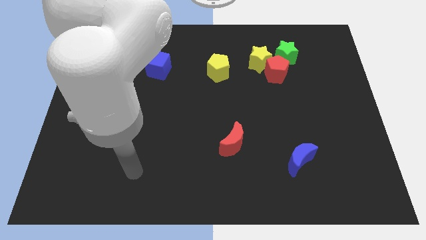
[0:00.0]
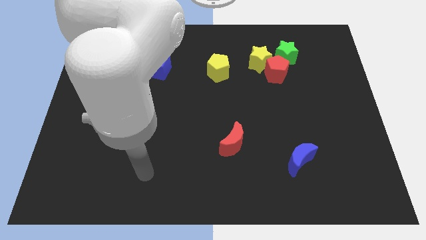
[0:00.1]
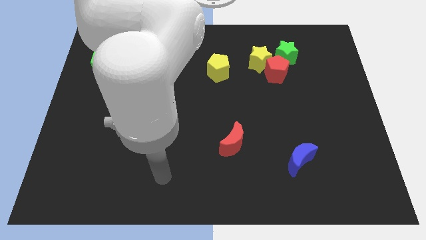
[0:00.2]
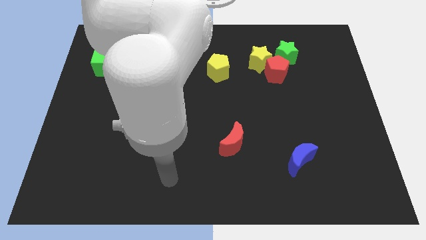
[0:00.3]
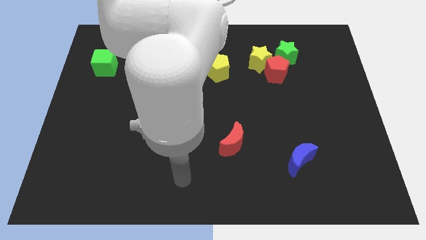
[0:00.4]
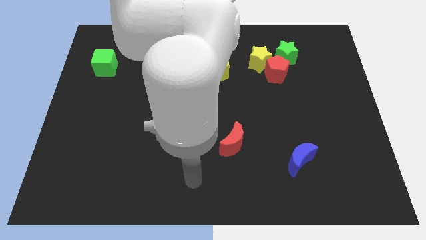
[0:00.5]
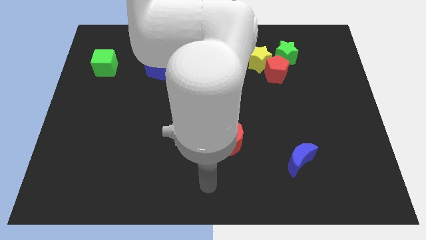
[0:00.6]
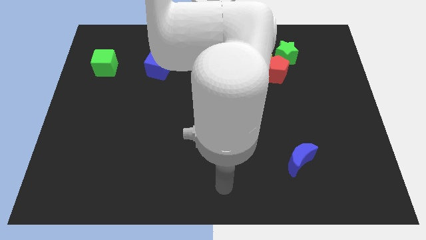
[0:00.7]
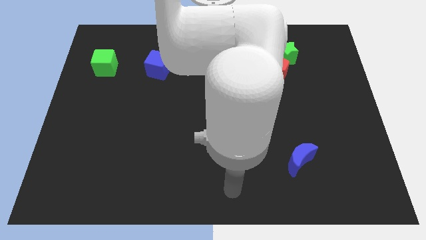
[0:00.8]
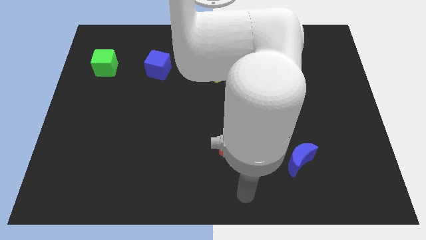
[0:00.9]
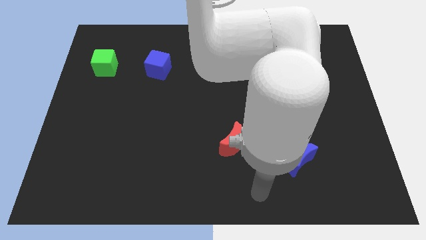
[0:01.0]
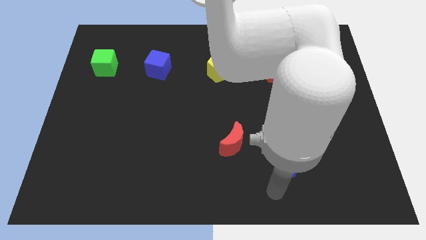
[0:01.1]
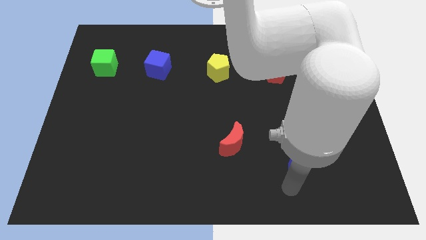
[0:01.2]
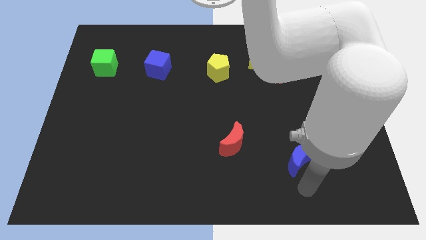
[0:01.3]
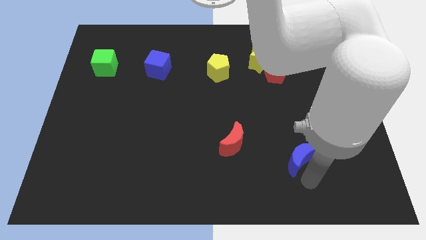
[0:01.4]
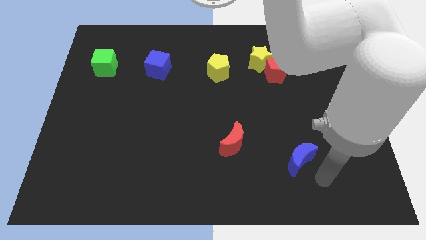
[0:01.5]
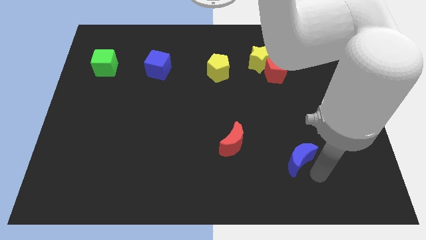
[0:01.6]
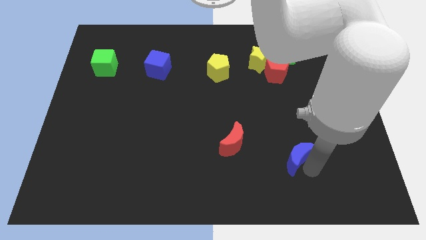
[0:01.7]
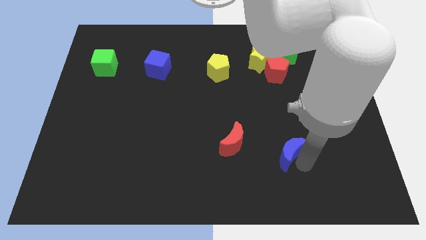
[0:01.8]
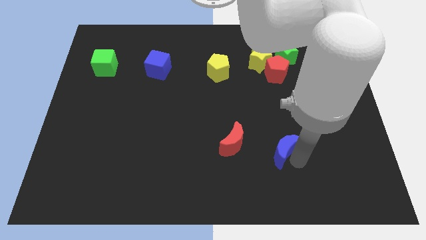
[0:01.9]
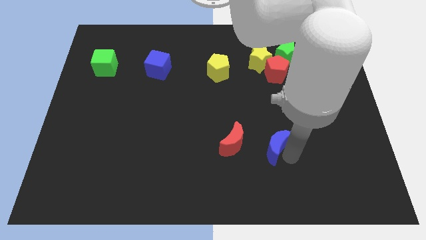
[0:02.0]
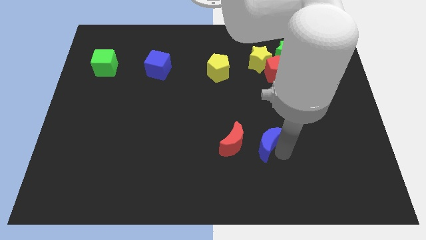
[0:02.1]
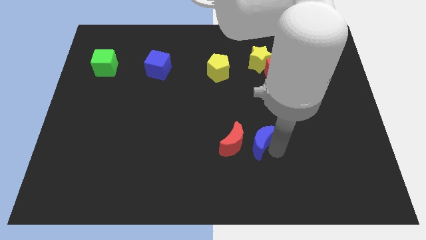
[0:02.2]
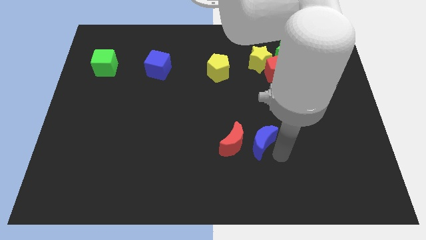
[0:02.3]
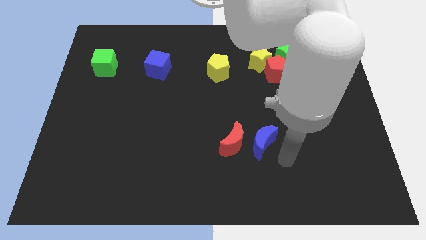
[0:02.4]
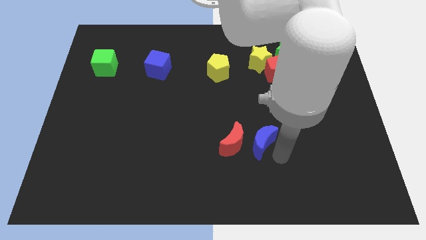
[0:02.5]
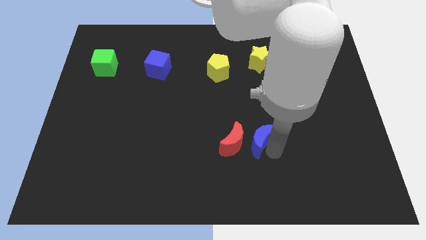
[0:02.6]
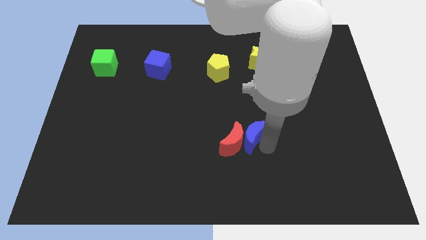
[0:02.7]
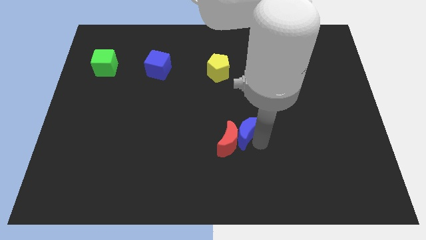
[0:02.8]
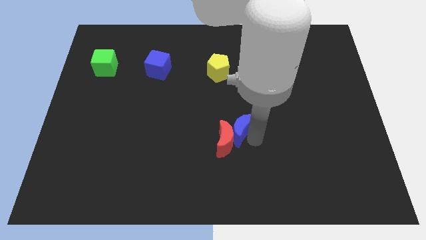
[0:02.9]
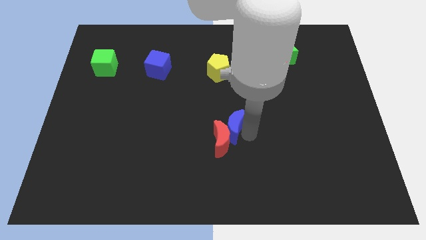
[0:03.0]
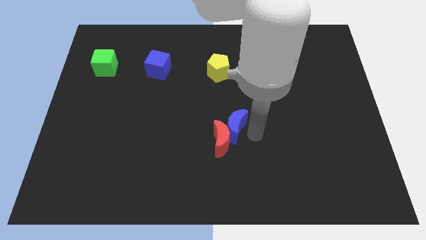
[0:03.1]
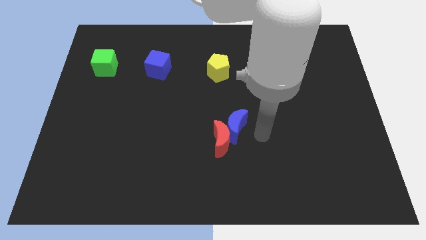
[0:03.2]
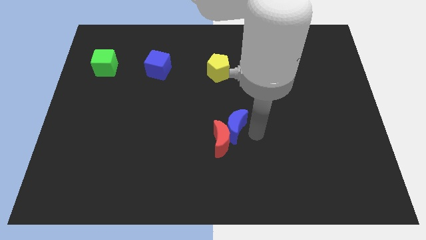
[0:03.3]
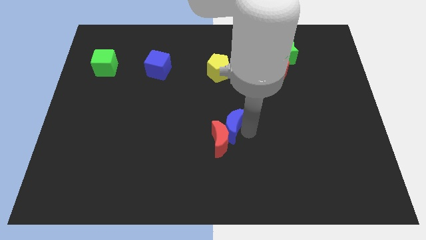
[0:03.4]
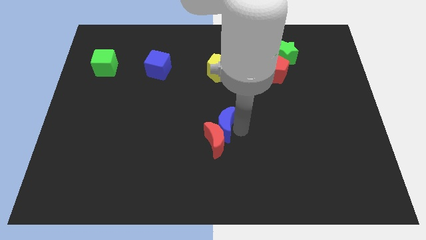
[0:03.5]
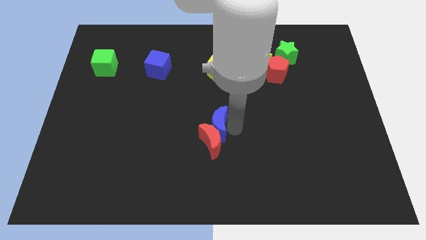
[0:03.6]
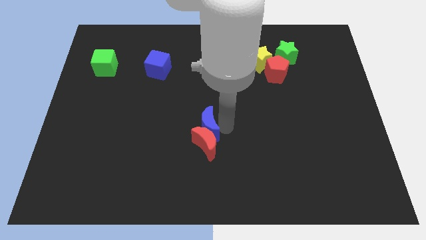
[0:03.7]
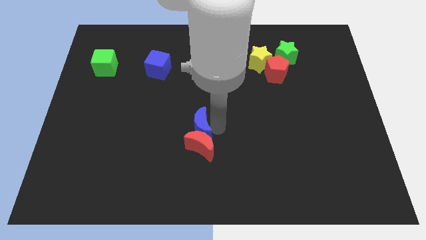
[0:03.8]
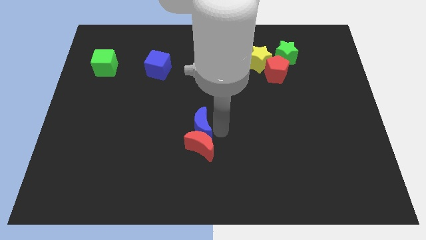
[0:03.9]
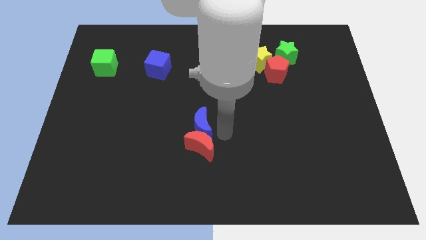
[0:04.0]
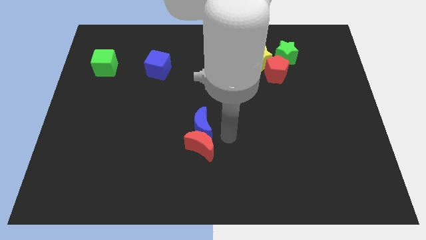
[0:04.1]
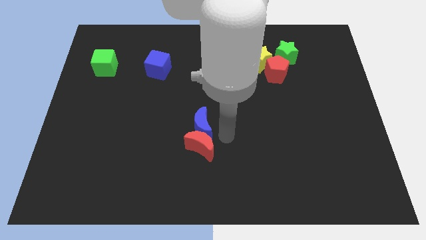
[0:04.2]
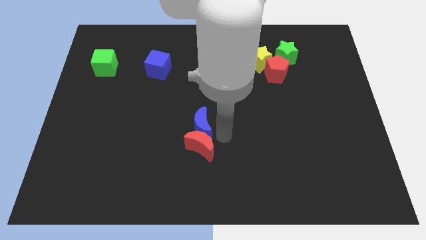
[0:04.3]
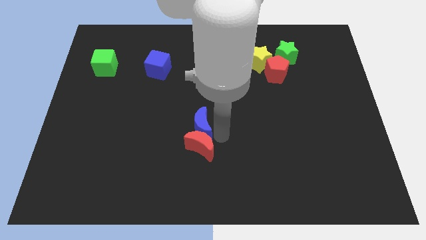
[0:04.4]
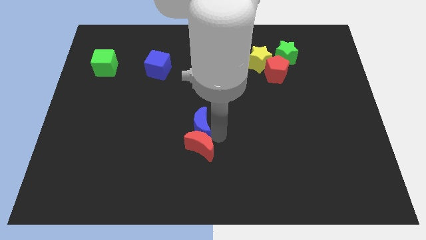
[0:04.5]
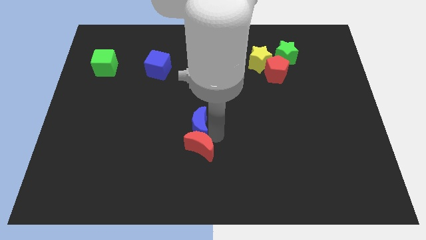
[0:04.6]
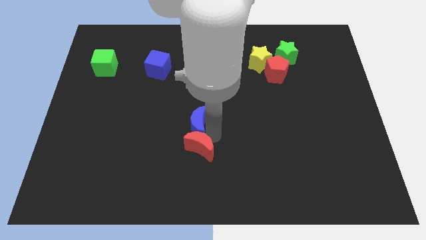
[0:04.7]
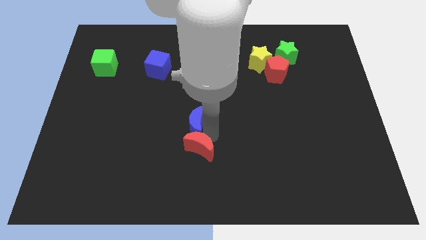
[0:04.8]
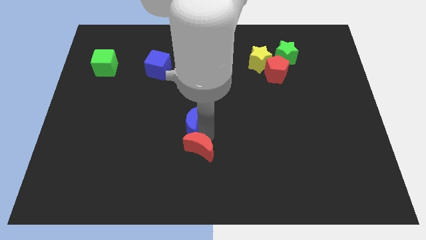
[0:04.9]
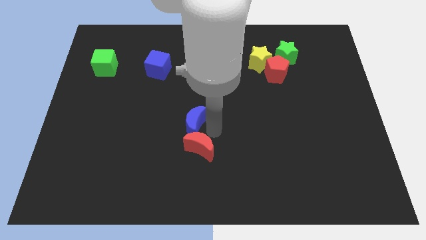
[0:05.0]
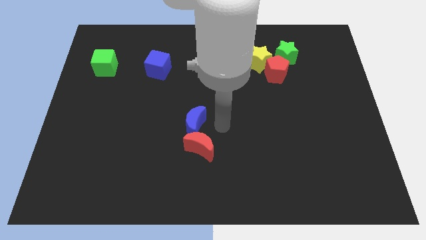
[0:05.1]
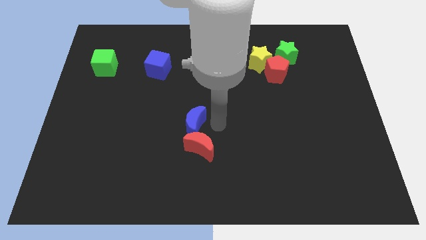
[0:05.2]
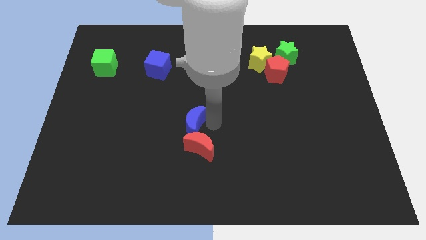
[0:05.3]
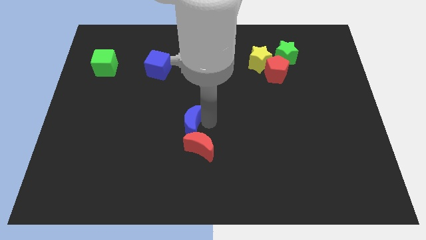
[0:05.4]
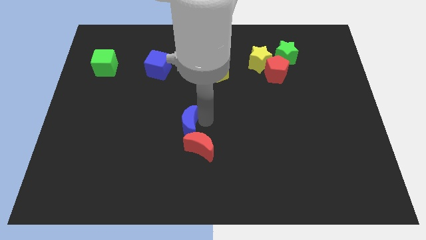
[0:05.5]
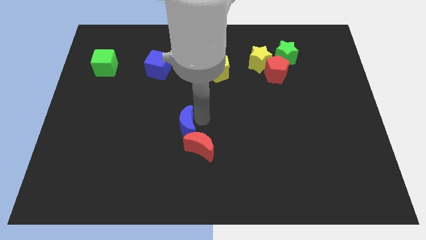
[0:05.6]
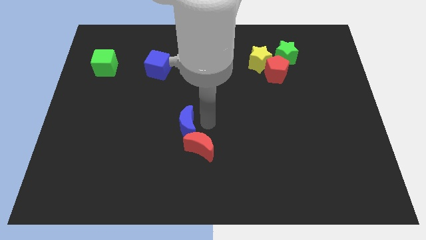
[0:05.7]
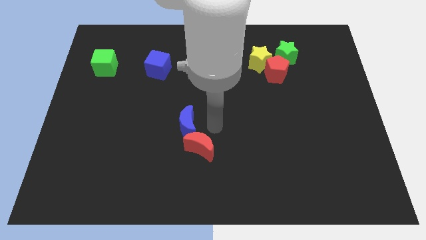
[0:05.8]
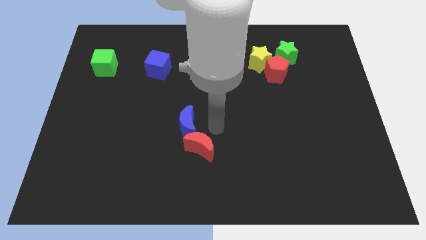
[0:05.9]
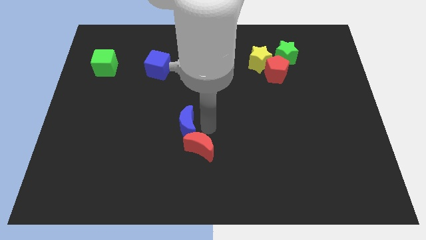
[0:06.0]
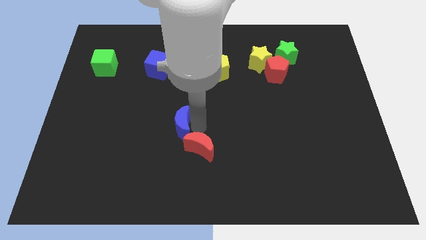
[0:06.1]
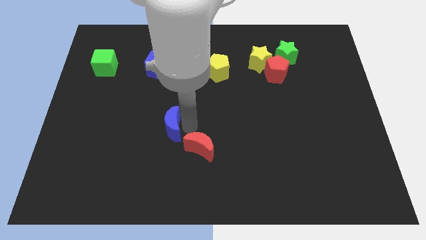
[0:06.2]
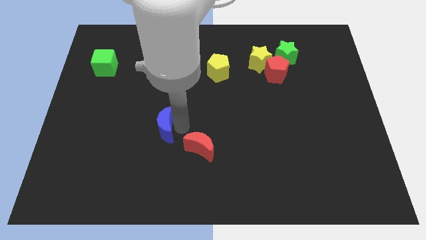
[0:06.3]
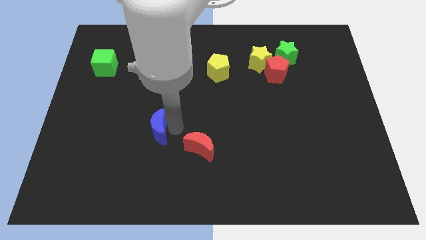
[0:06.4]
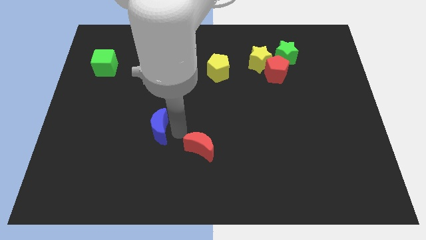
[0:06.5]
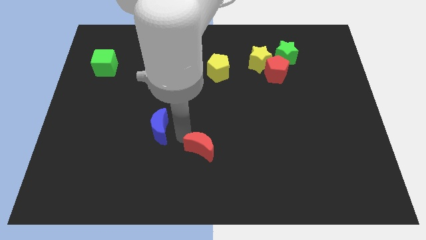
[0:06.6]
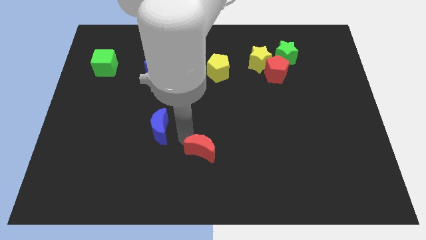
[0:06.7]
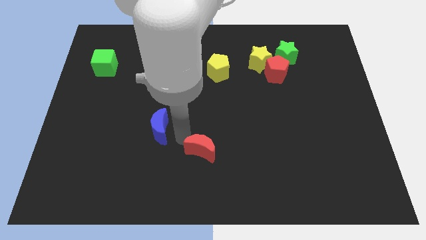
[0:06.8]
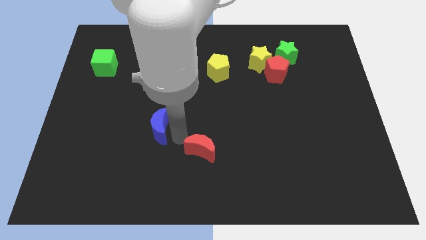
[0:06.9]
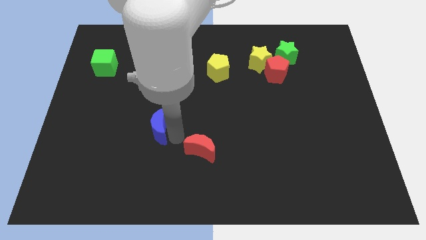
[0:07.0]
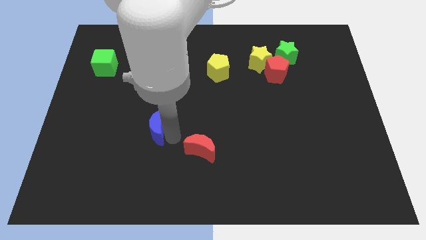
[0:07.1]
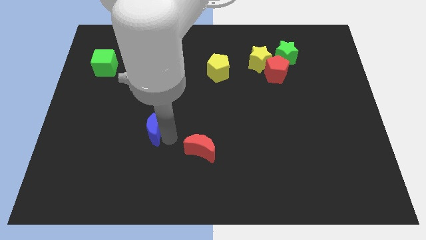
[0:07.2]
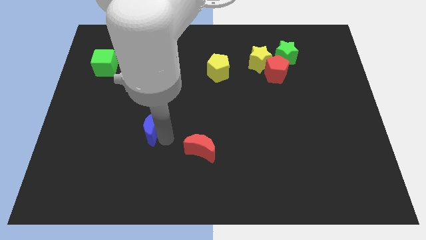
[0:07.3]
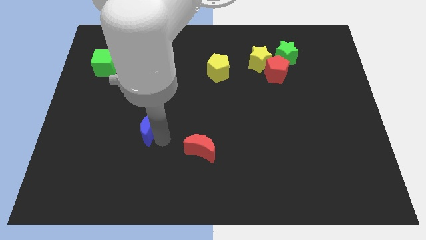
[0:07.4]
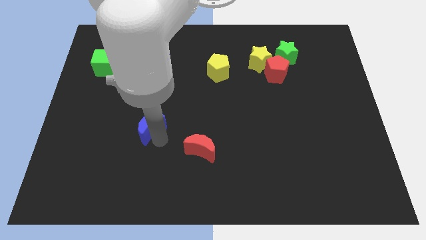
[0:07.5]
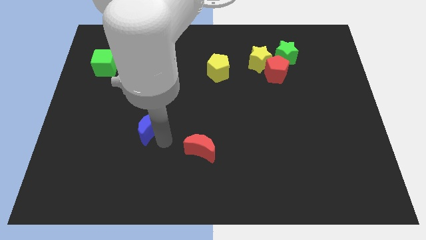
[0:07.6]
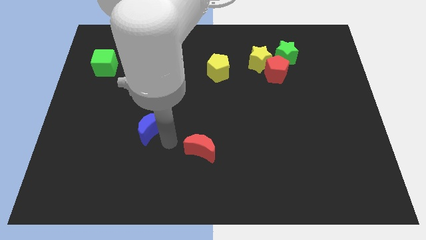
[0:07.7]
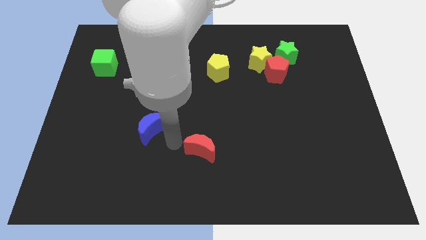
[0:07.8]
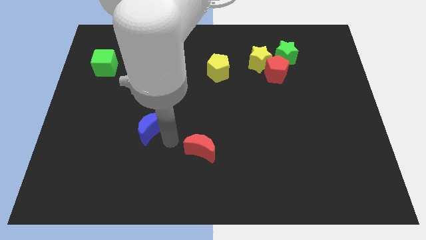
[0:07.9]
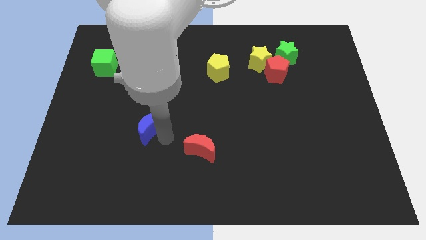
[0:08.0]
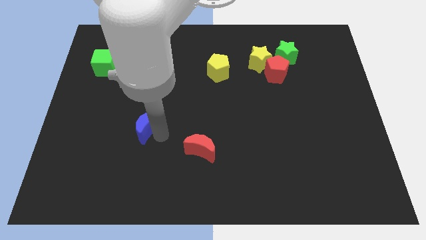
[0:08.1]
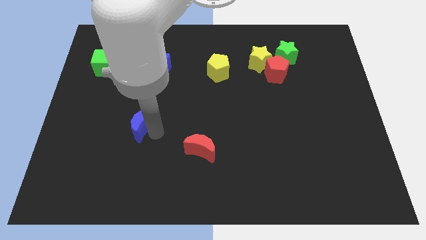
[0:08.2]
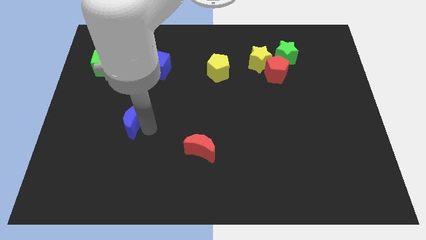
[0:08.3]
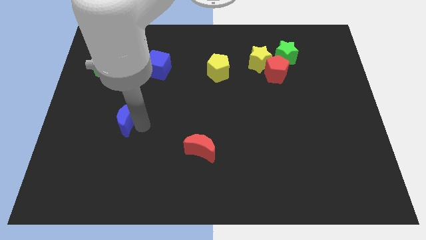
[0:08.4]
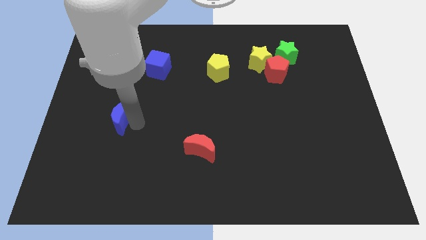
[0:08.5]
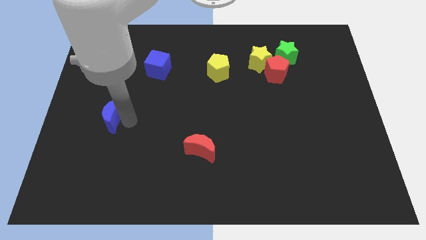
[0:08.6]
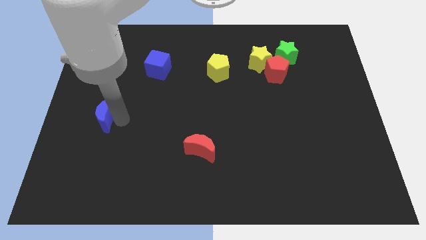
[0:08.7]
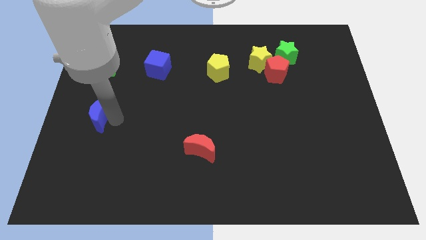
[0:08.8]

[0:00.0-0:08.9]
slide the blue moon to the center left
